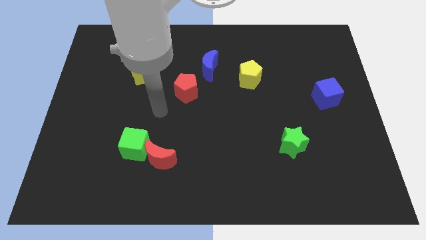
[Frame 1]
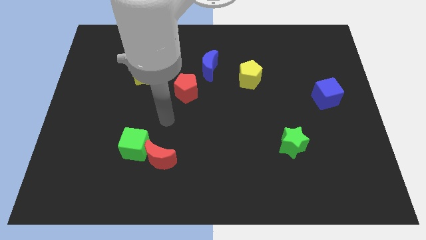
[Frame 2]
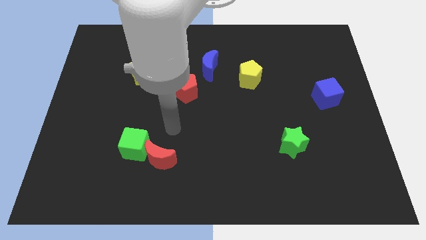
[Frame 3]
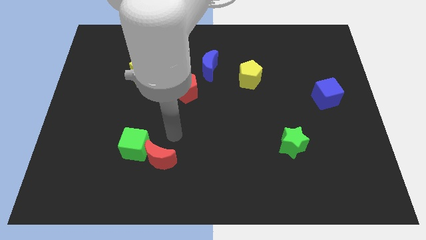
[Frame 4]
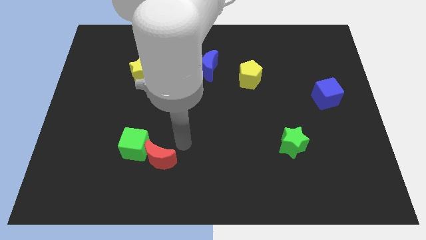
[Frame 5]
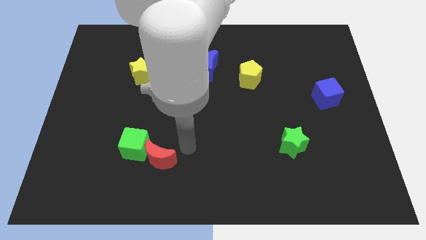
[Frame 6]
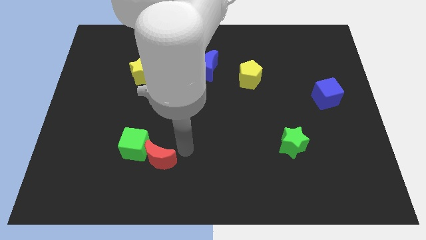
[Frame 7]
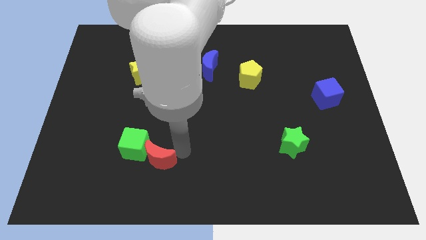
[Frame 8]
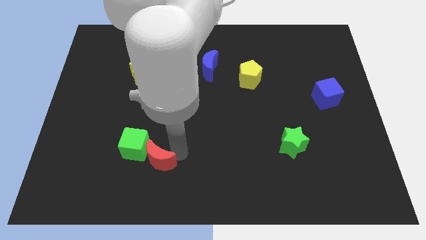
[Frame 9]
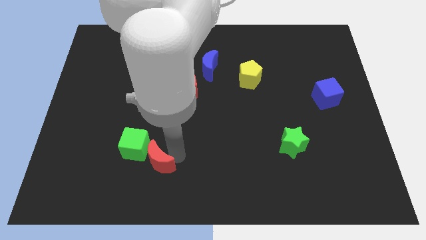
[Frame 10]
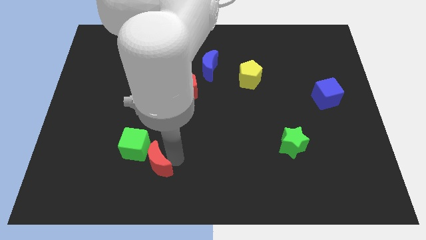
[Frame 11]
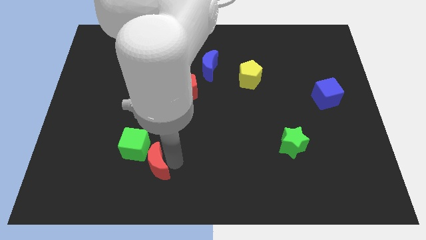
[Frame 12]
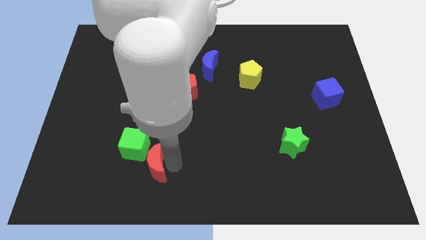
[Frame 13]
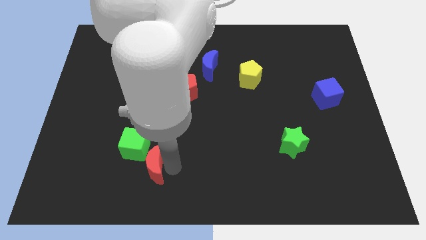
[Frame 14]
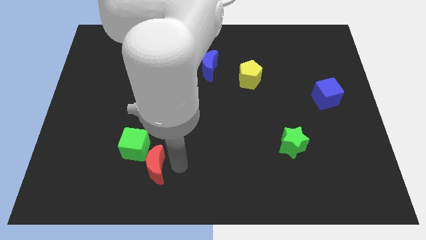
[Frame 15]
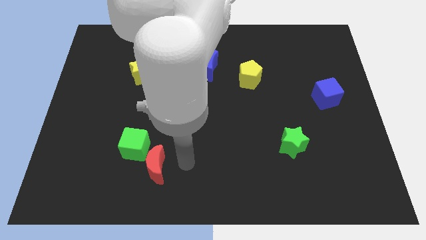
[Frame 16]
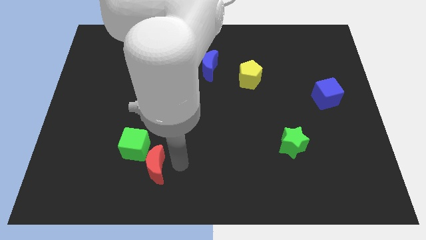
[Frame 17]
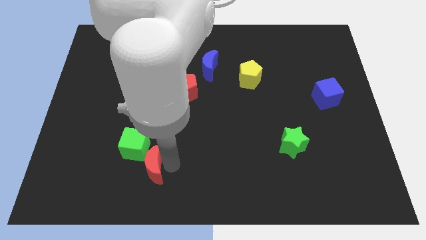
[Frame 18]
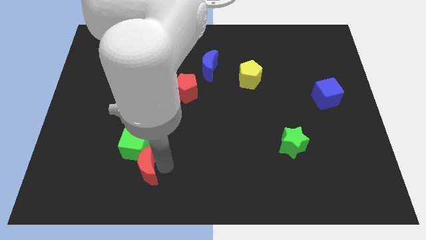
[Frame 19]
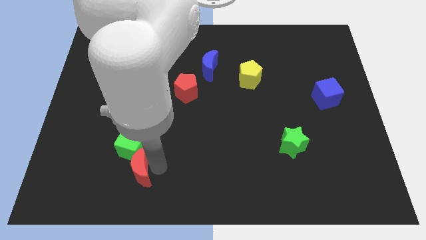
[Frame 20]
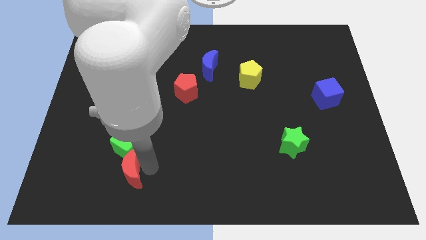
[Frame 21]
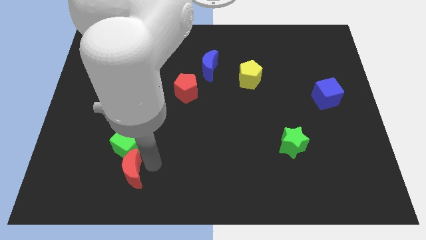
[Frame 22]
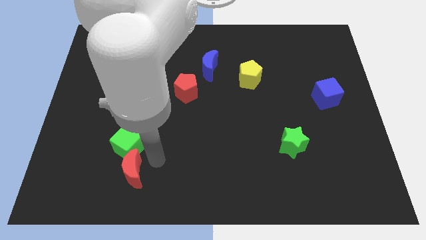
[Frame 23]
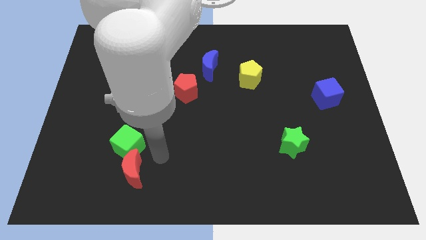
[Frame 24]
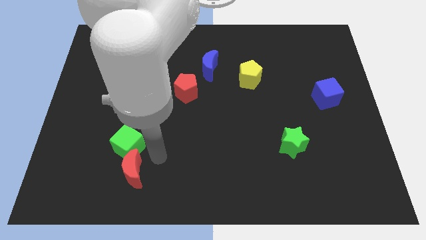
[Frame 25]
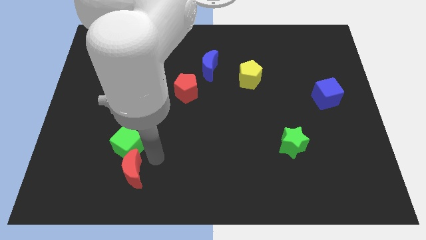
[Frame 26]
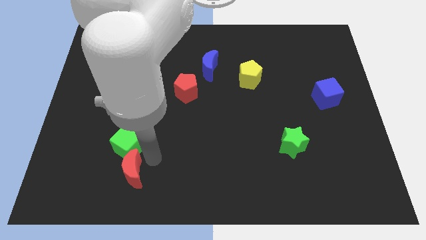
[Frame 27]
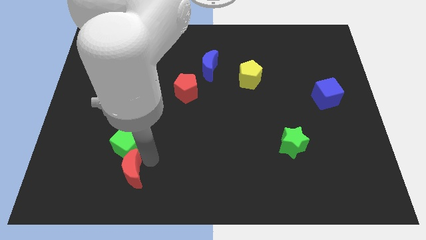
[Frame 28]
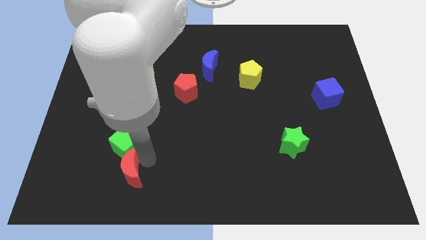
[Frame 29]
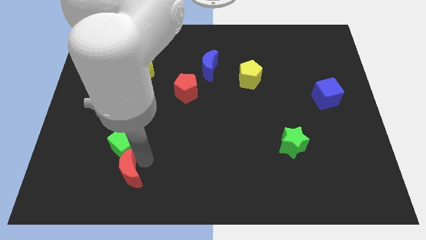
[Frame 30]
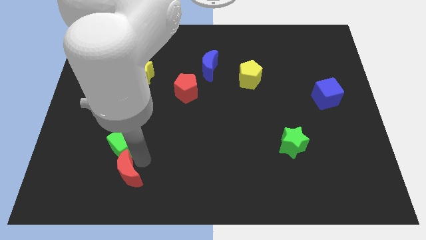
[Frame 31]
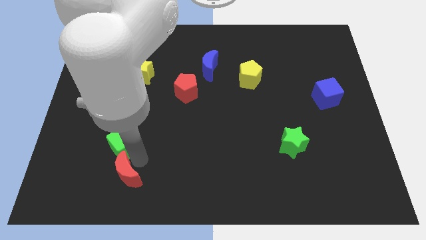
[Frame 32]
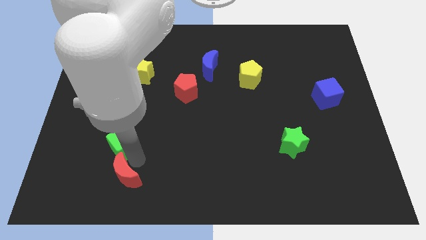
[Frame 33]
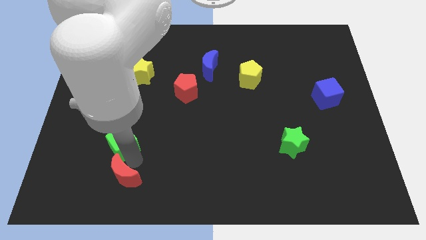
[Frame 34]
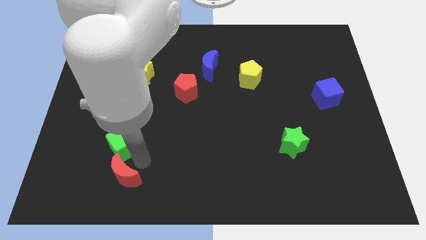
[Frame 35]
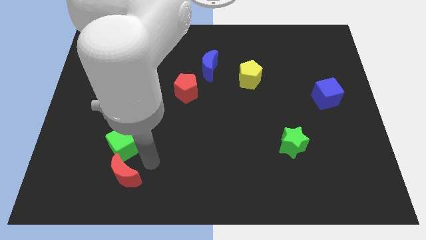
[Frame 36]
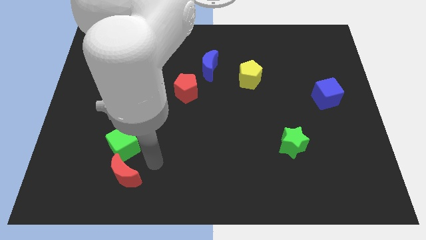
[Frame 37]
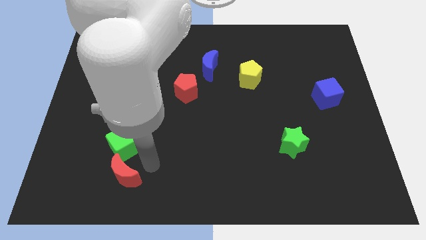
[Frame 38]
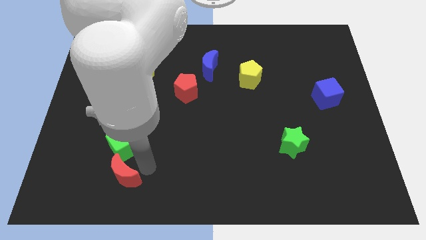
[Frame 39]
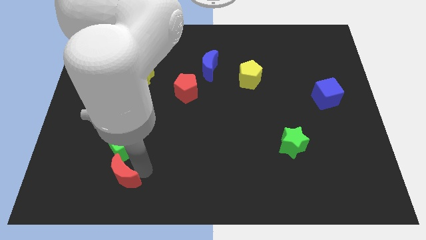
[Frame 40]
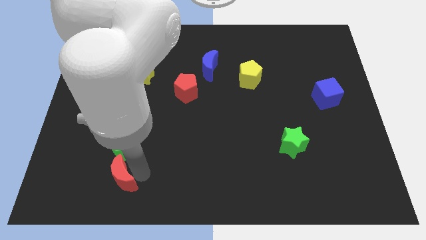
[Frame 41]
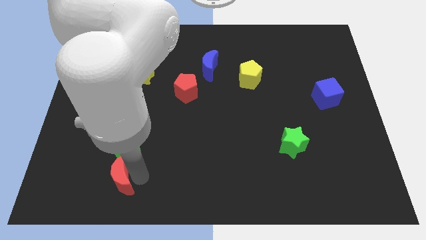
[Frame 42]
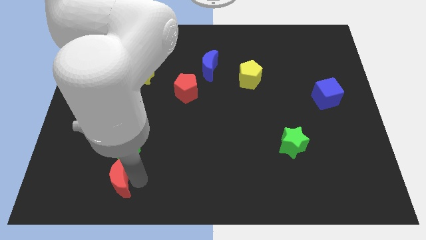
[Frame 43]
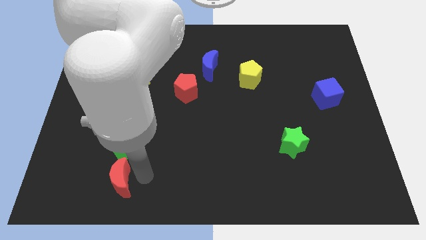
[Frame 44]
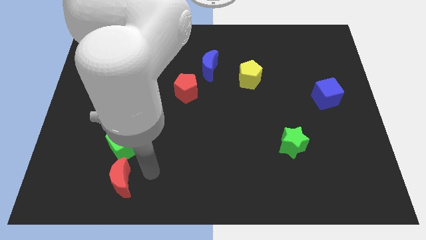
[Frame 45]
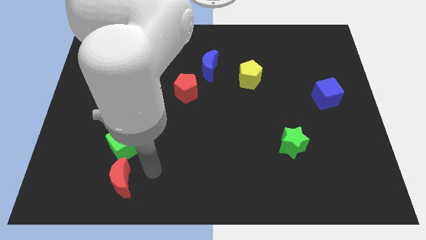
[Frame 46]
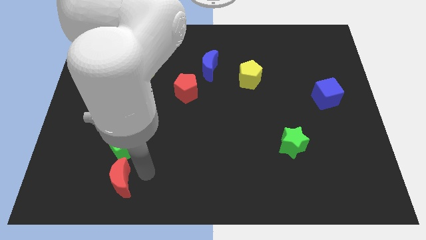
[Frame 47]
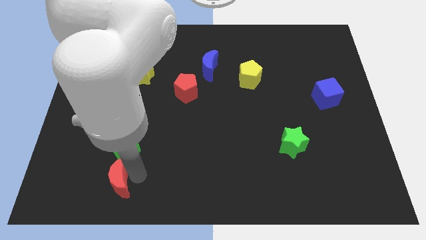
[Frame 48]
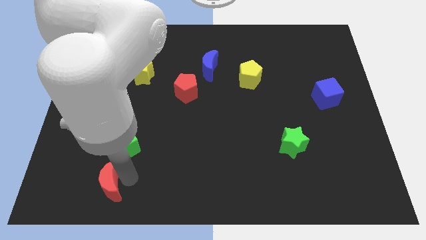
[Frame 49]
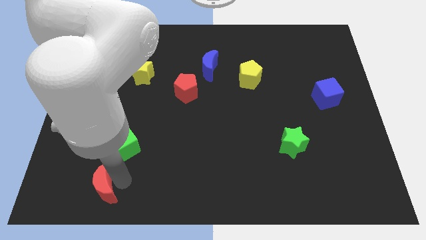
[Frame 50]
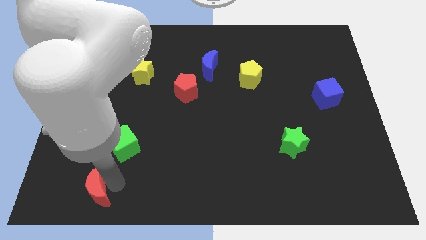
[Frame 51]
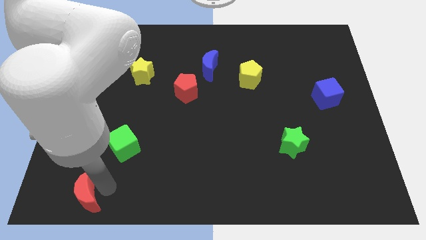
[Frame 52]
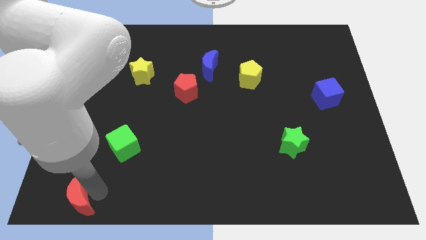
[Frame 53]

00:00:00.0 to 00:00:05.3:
move the red moon to the bottom left of the board

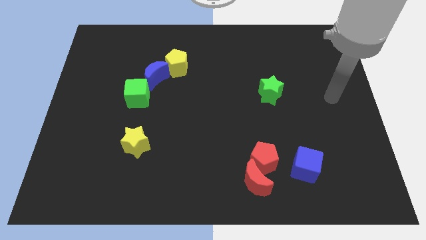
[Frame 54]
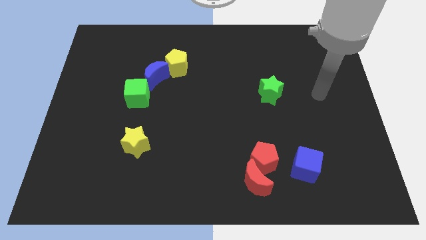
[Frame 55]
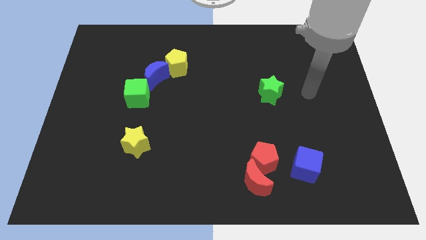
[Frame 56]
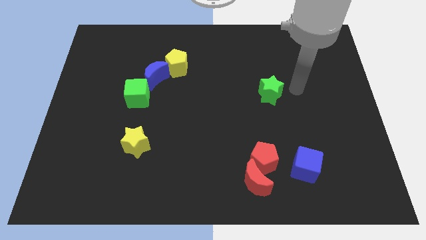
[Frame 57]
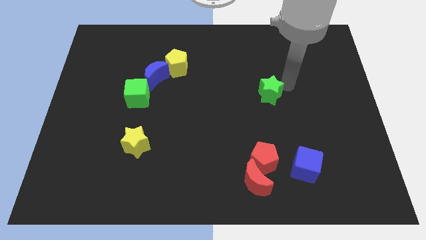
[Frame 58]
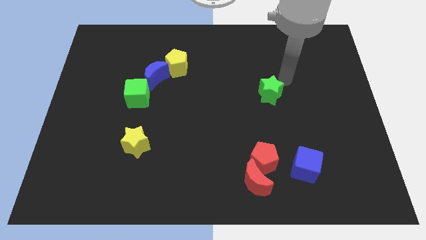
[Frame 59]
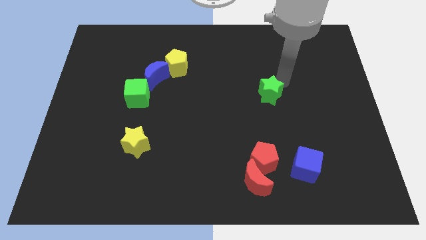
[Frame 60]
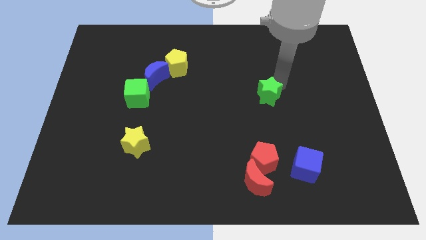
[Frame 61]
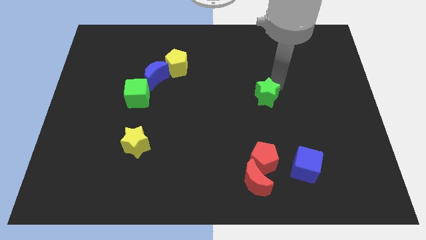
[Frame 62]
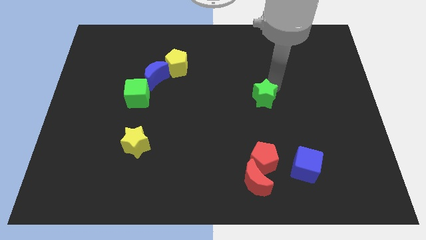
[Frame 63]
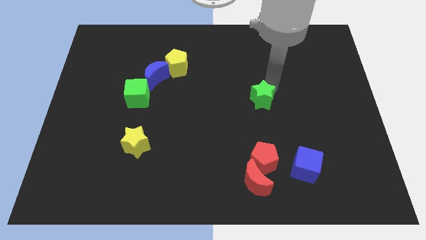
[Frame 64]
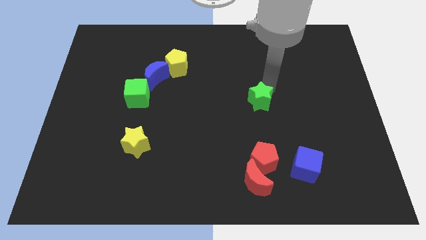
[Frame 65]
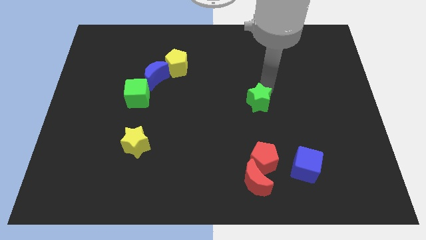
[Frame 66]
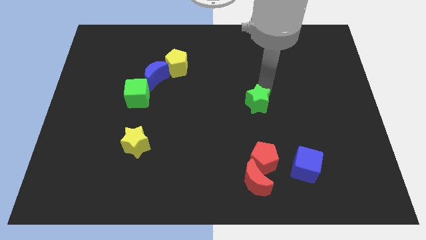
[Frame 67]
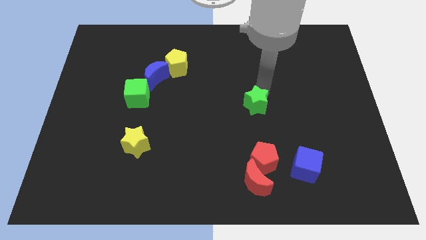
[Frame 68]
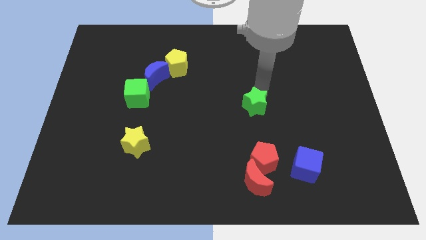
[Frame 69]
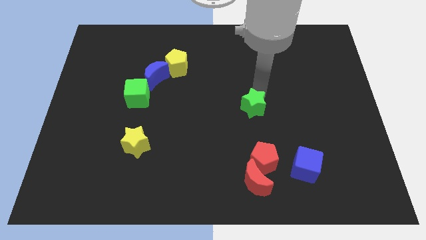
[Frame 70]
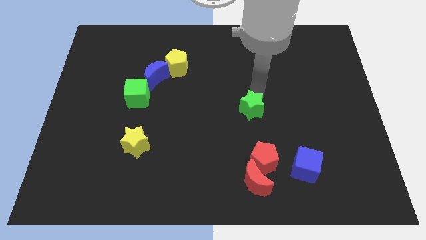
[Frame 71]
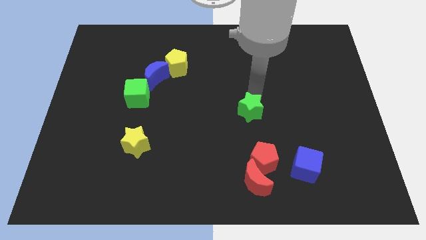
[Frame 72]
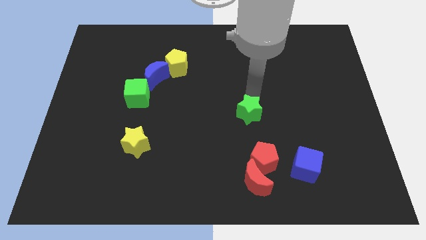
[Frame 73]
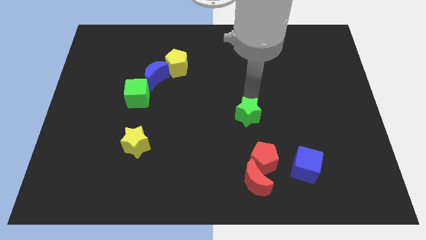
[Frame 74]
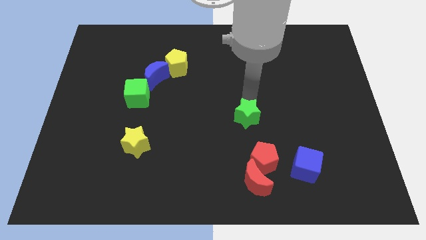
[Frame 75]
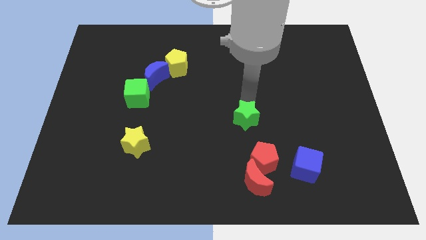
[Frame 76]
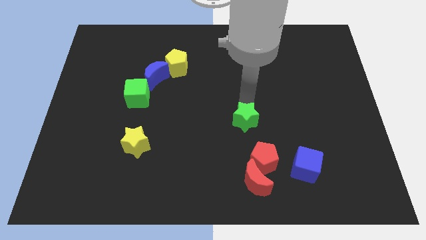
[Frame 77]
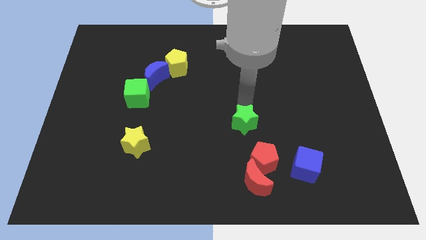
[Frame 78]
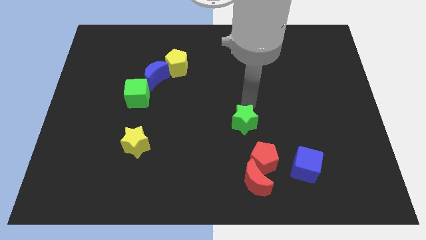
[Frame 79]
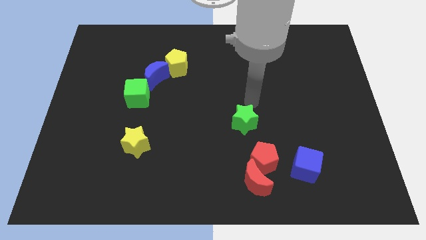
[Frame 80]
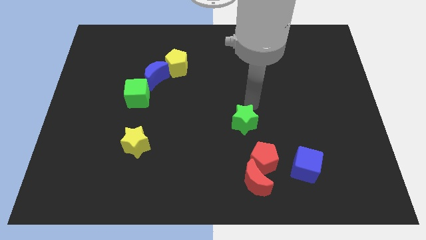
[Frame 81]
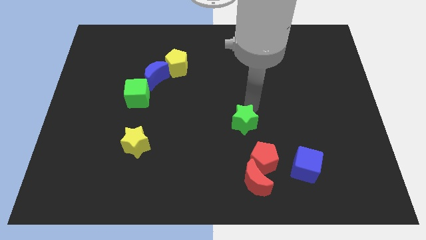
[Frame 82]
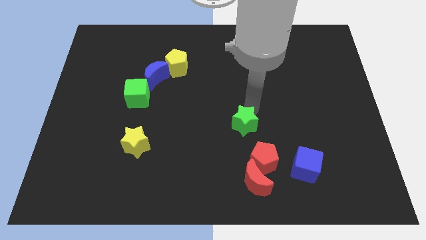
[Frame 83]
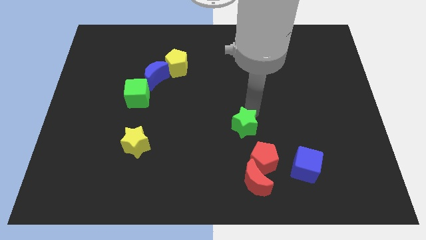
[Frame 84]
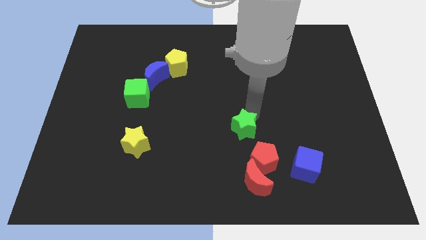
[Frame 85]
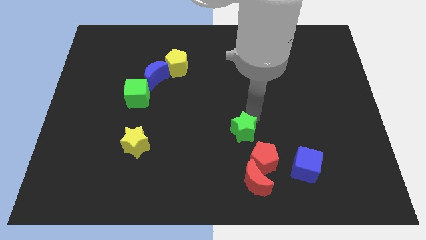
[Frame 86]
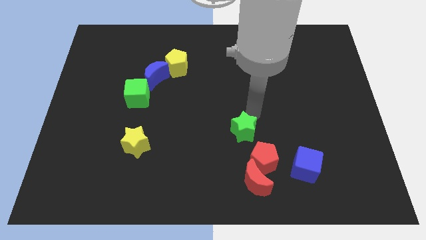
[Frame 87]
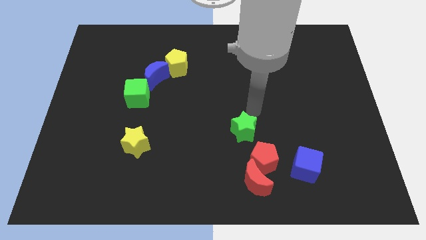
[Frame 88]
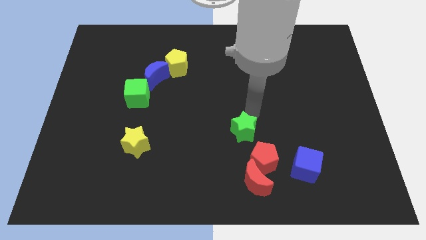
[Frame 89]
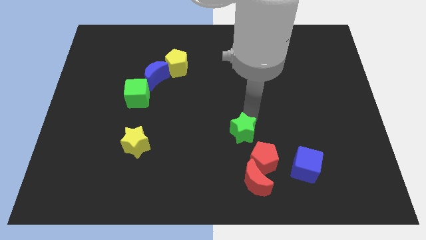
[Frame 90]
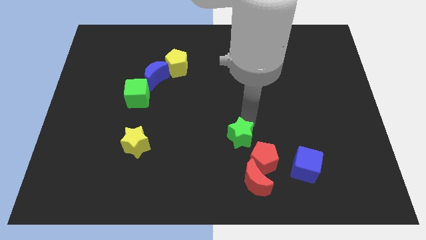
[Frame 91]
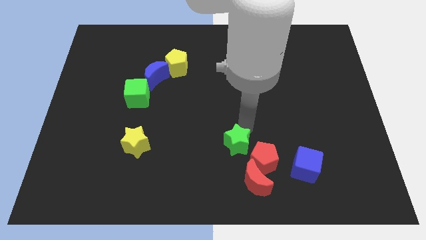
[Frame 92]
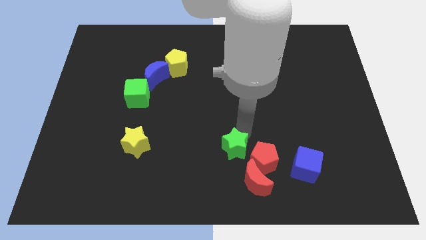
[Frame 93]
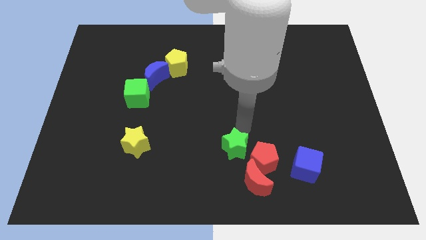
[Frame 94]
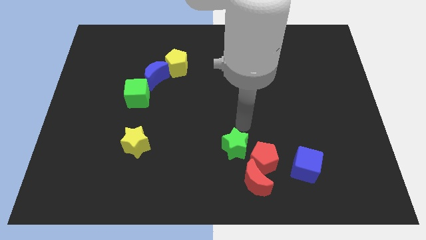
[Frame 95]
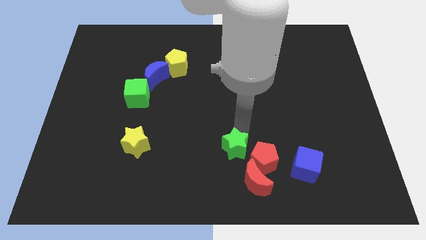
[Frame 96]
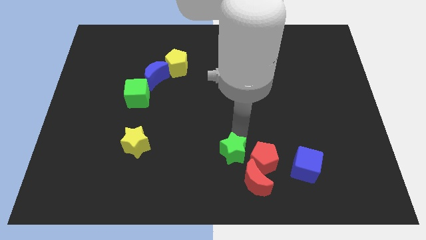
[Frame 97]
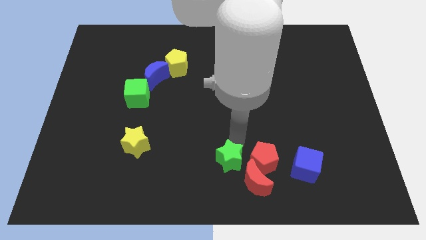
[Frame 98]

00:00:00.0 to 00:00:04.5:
move the green star to the bottom side
